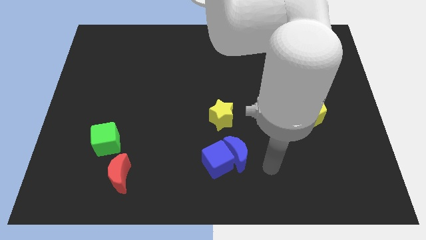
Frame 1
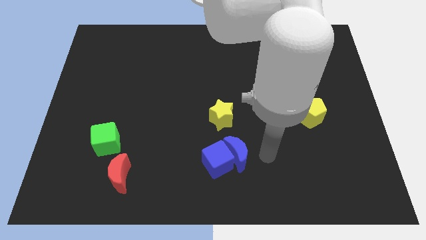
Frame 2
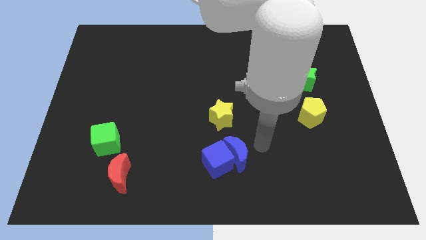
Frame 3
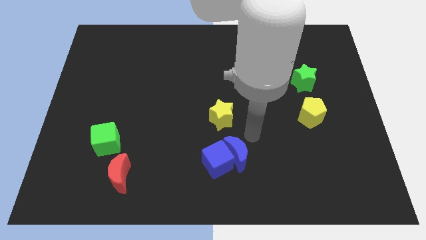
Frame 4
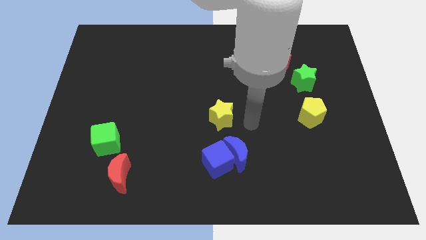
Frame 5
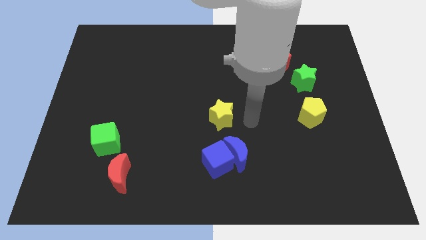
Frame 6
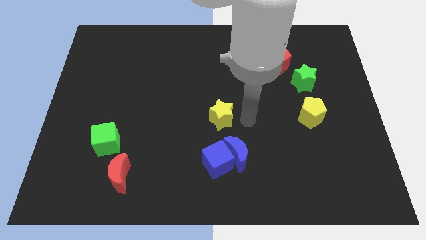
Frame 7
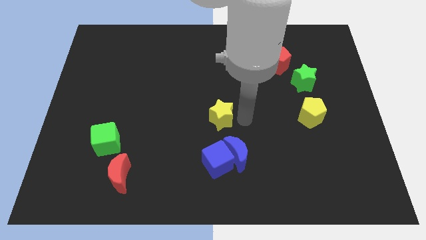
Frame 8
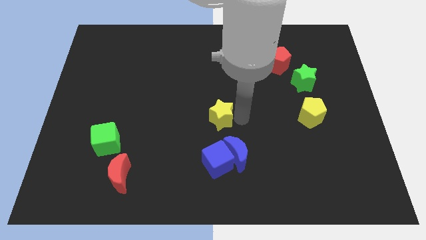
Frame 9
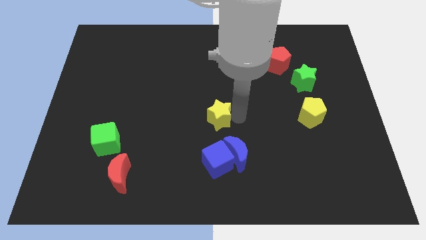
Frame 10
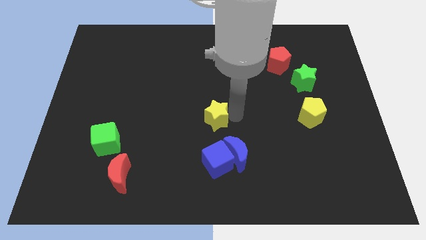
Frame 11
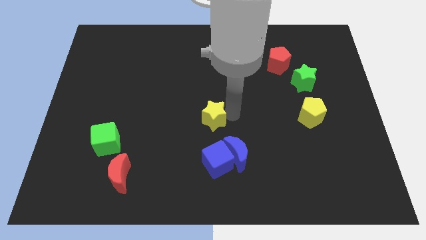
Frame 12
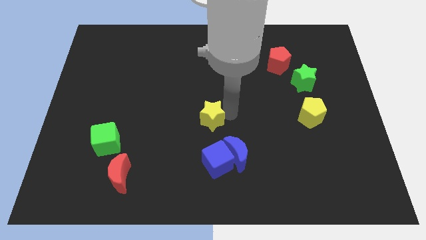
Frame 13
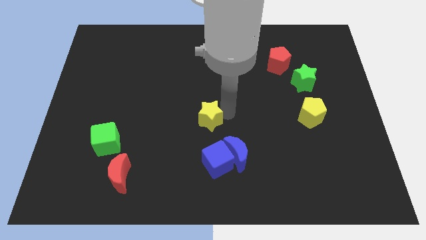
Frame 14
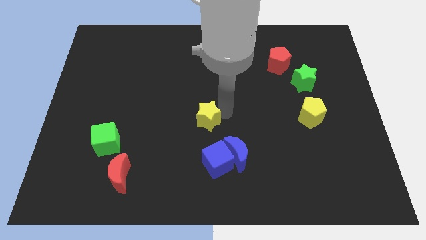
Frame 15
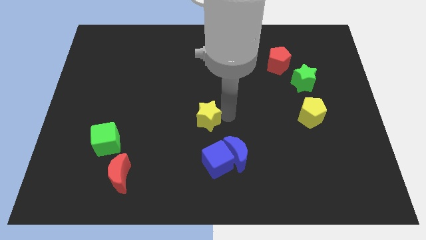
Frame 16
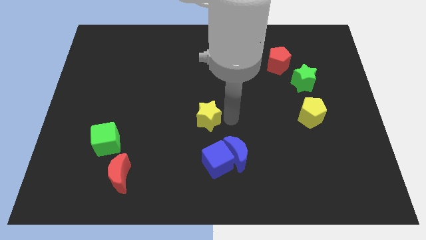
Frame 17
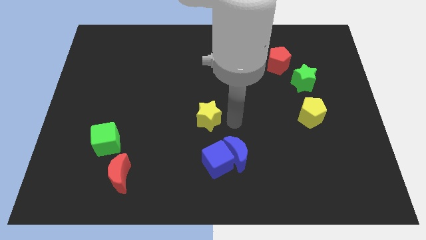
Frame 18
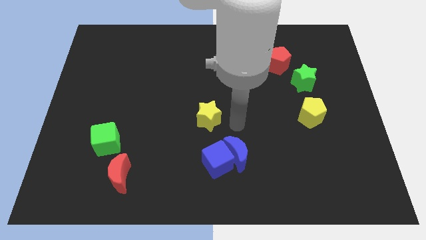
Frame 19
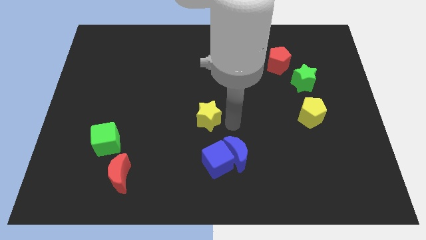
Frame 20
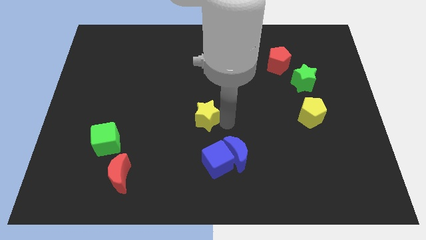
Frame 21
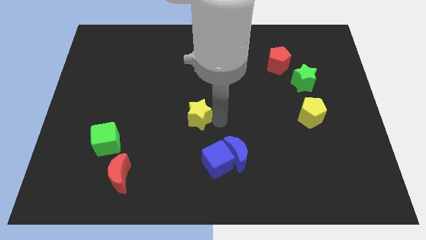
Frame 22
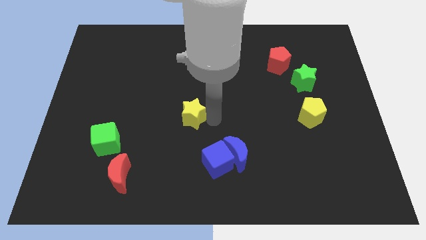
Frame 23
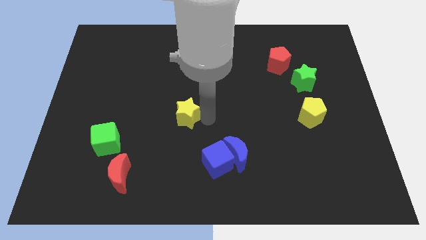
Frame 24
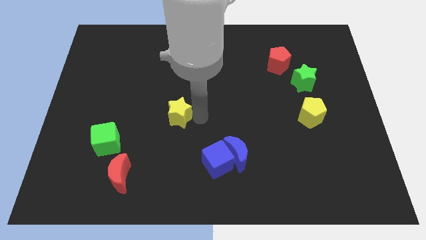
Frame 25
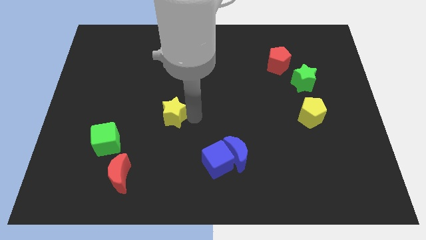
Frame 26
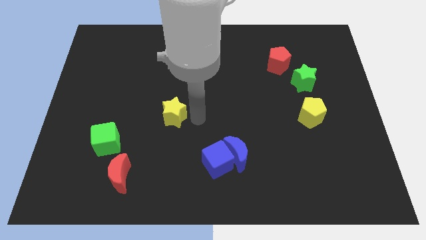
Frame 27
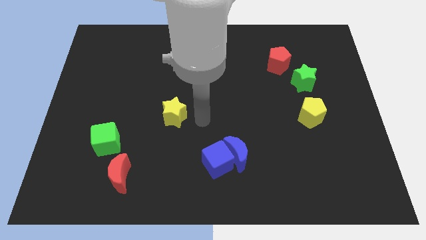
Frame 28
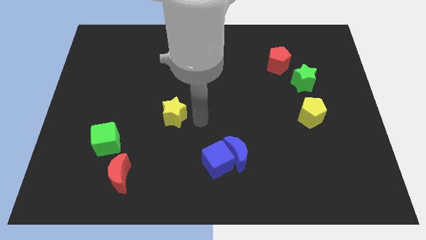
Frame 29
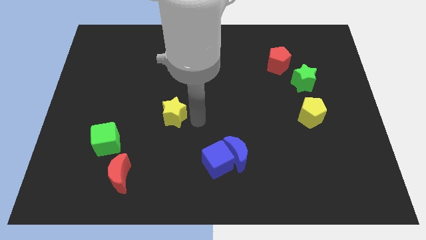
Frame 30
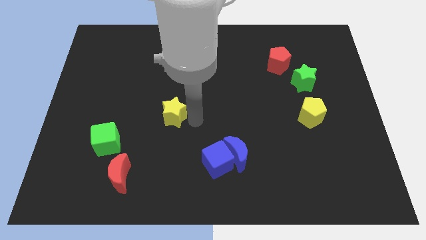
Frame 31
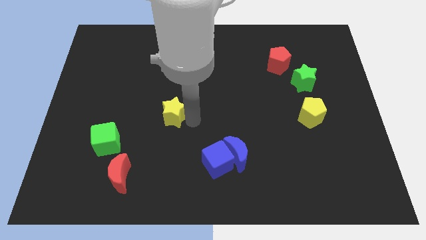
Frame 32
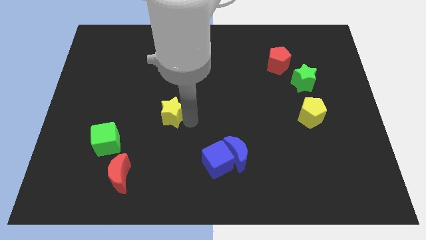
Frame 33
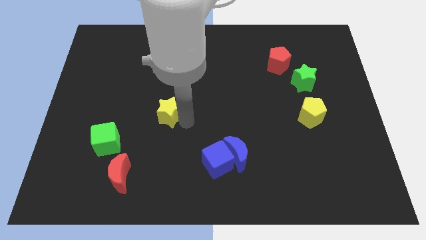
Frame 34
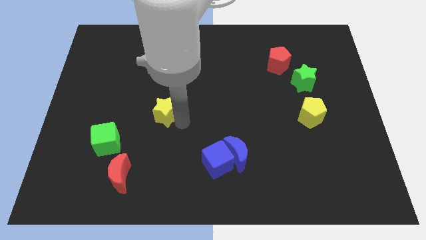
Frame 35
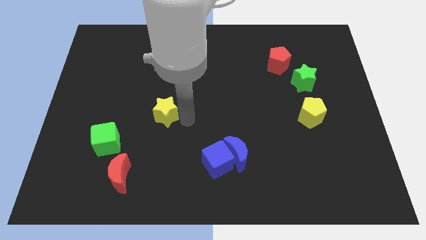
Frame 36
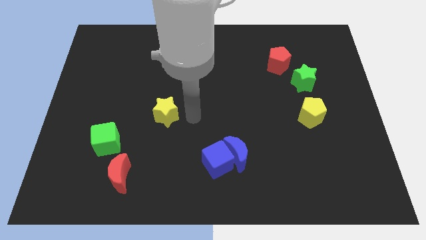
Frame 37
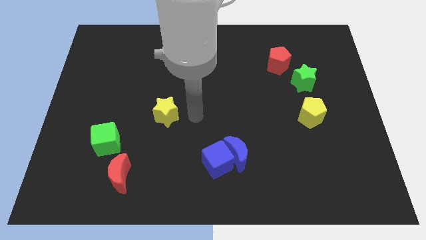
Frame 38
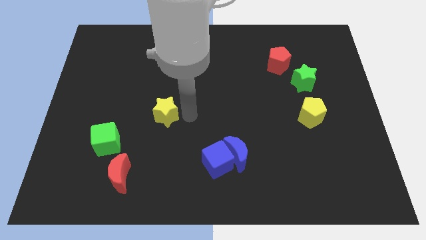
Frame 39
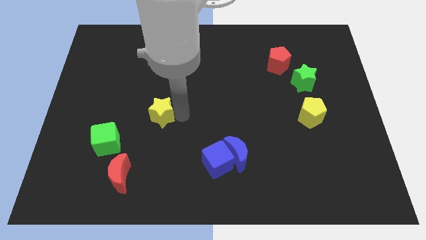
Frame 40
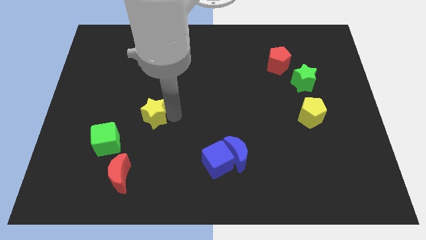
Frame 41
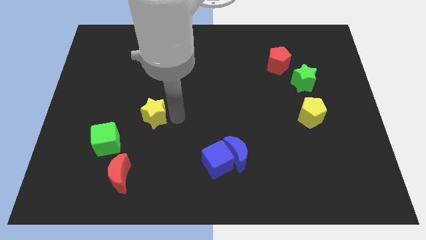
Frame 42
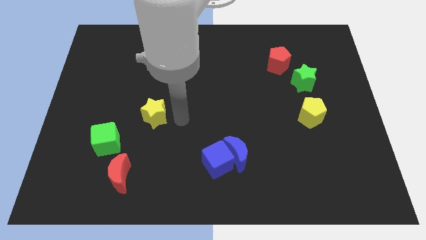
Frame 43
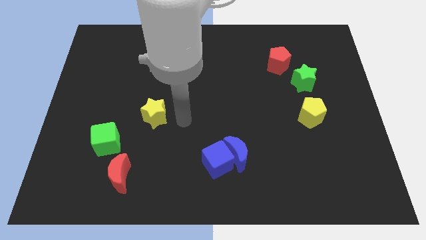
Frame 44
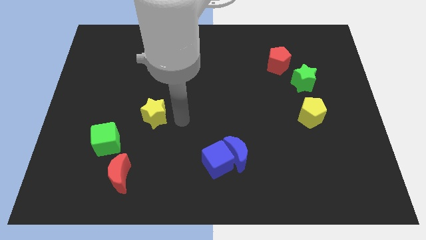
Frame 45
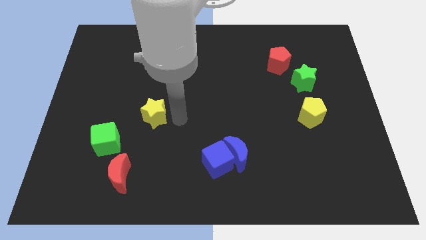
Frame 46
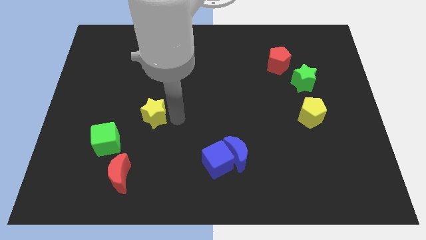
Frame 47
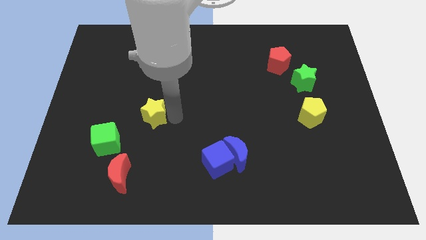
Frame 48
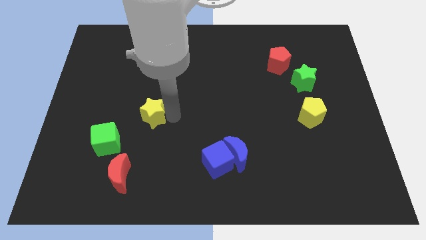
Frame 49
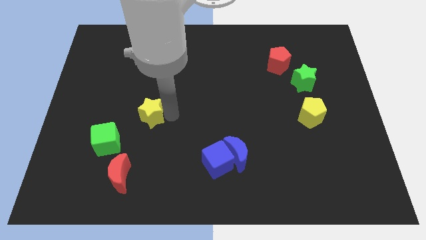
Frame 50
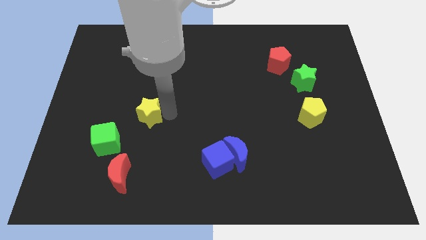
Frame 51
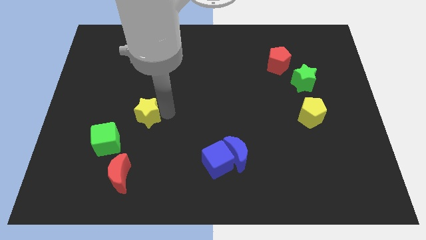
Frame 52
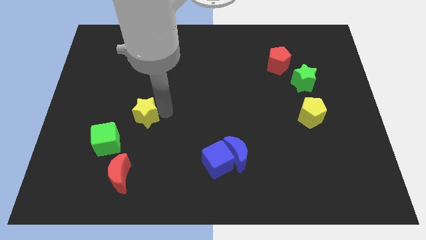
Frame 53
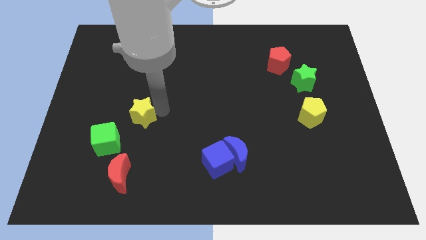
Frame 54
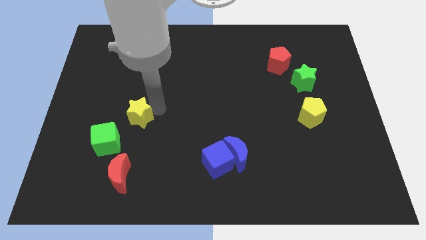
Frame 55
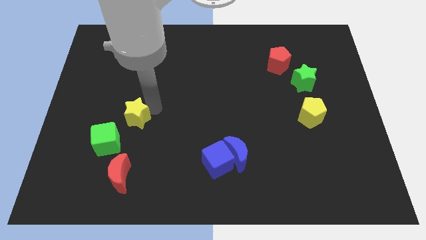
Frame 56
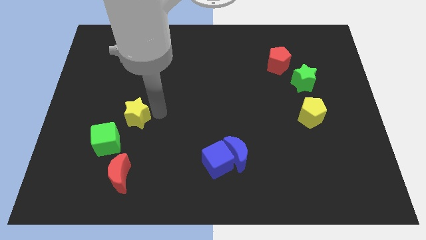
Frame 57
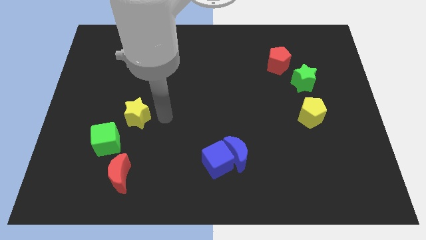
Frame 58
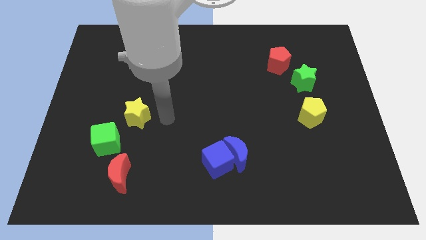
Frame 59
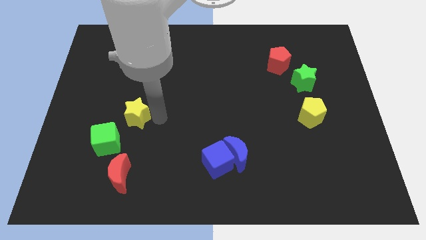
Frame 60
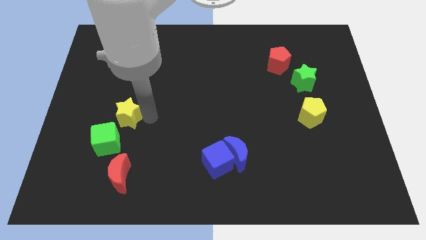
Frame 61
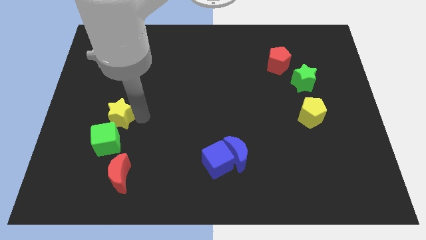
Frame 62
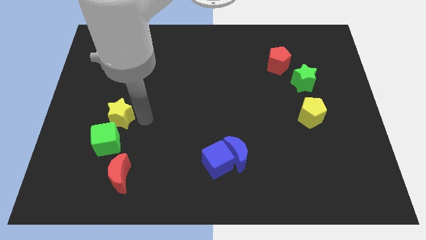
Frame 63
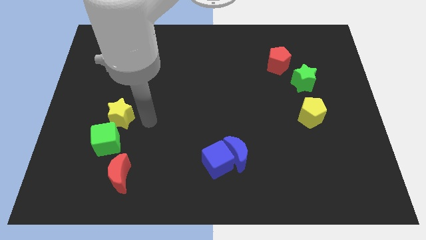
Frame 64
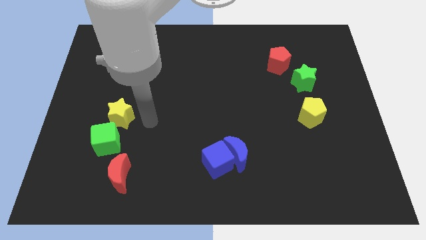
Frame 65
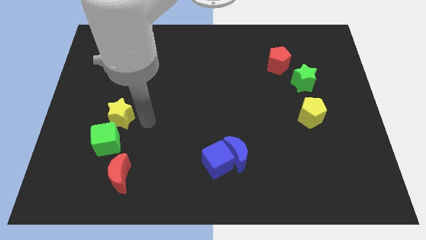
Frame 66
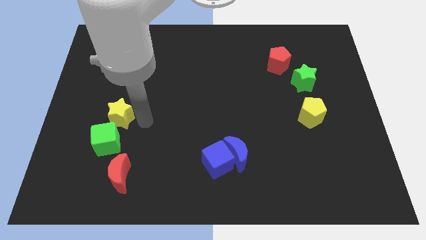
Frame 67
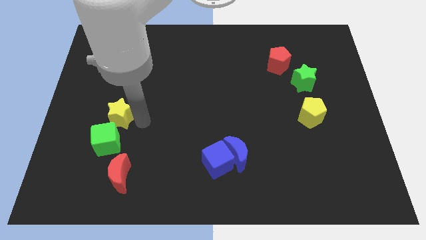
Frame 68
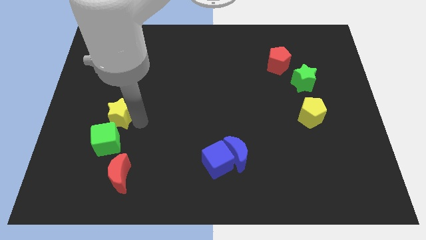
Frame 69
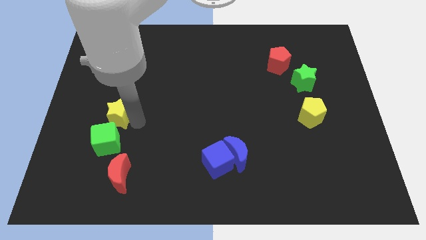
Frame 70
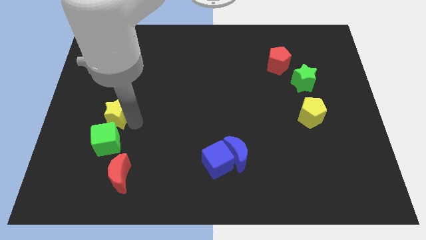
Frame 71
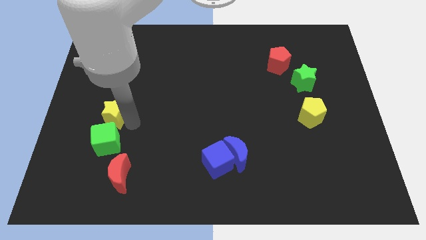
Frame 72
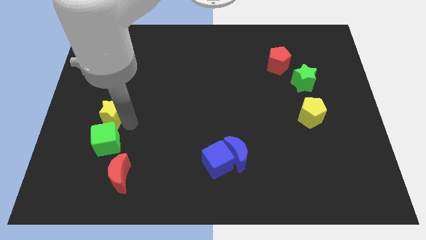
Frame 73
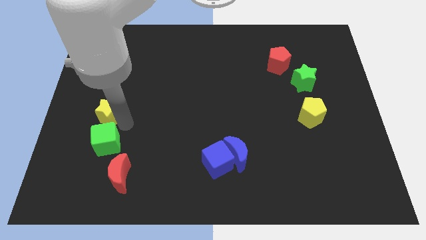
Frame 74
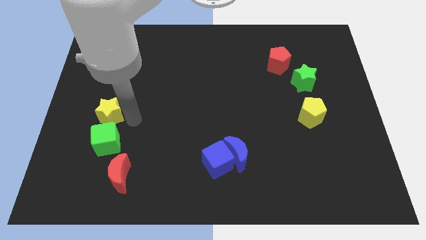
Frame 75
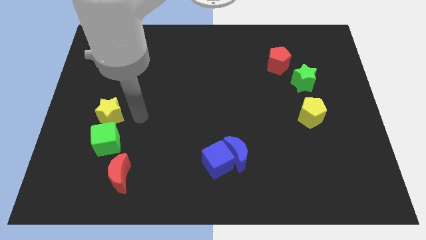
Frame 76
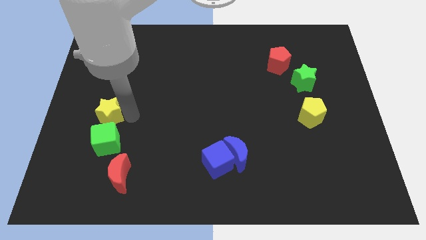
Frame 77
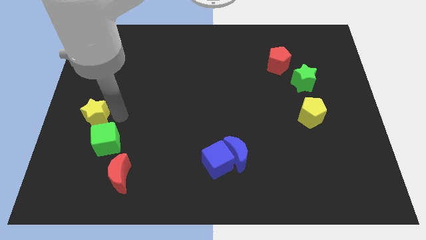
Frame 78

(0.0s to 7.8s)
move the yellow star to the center left
